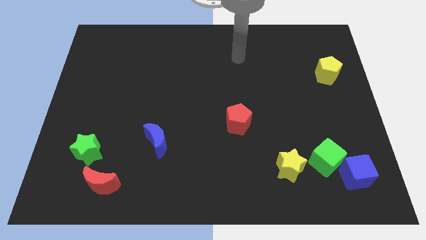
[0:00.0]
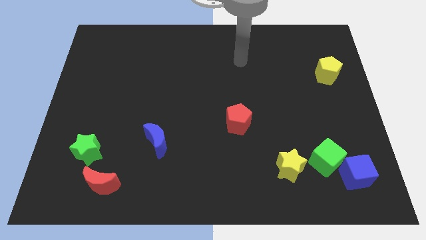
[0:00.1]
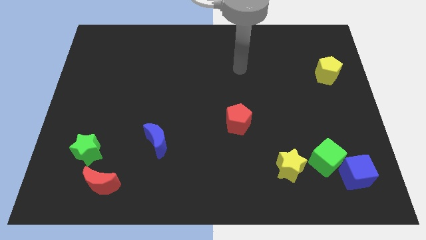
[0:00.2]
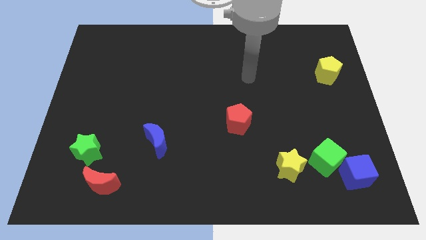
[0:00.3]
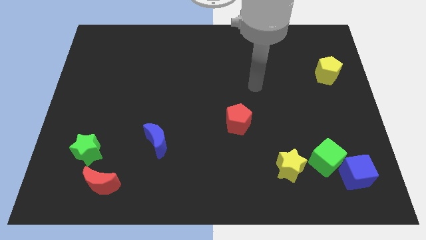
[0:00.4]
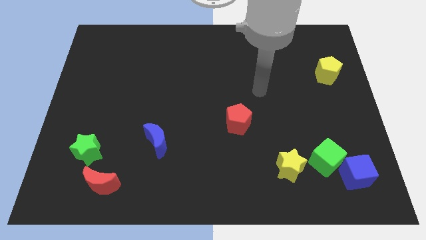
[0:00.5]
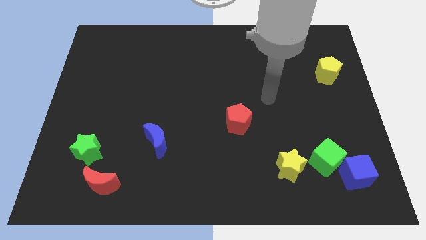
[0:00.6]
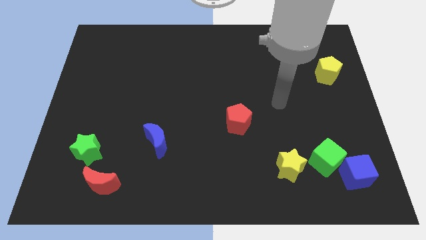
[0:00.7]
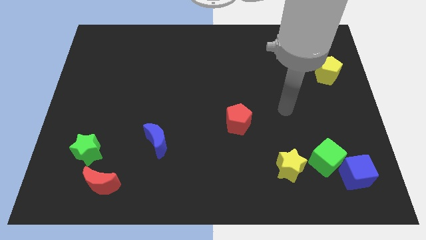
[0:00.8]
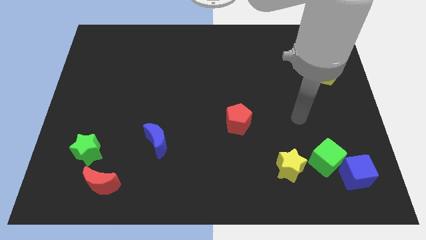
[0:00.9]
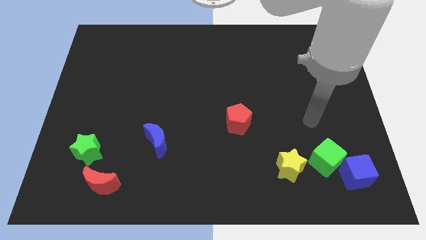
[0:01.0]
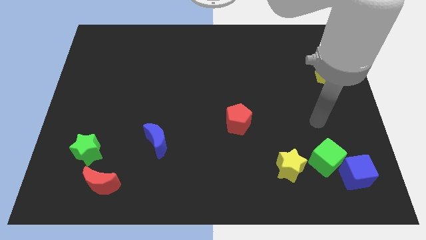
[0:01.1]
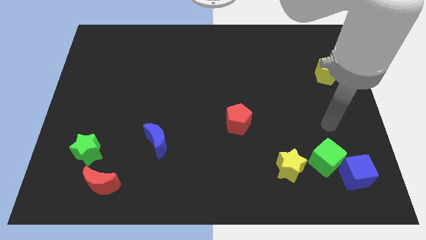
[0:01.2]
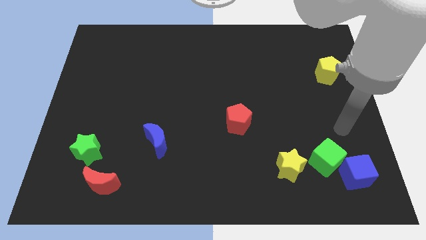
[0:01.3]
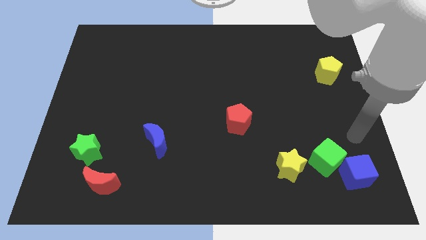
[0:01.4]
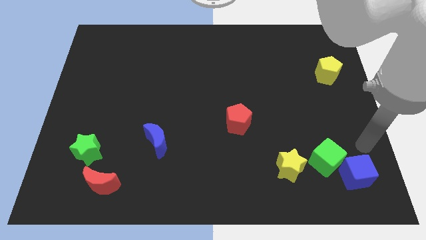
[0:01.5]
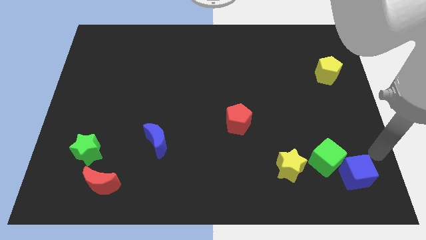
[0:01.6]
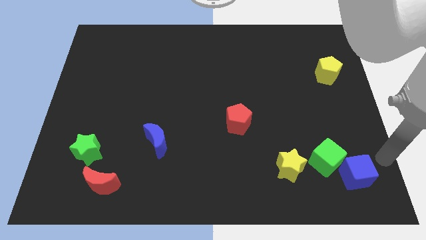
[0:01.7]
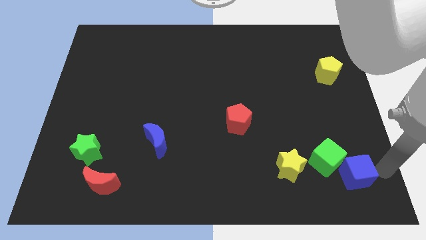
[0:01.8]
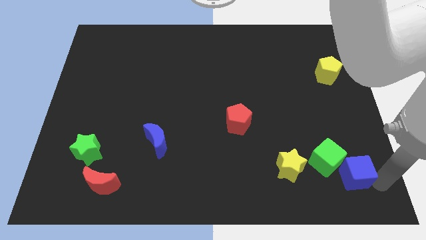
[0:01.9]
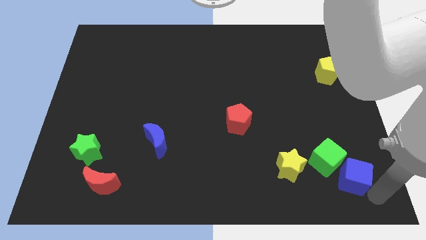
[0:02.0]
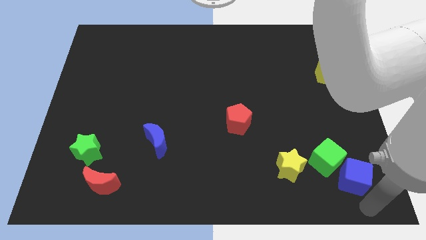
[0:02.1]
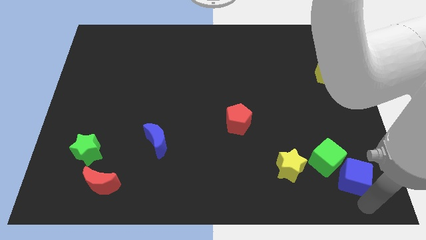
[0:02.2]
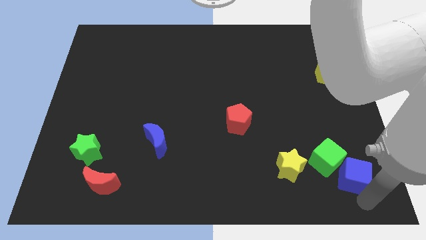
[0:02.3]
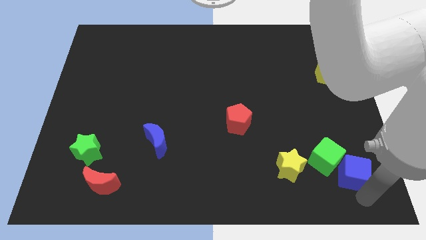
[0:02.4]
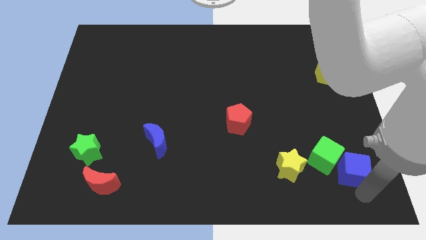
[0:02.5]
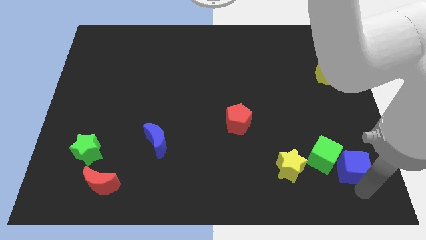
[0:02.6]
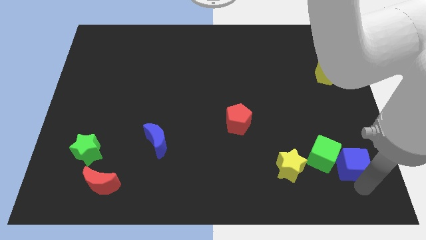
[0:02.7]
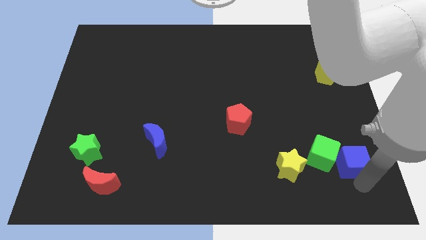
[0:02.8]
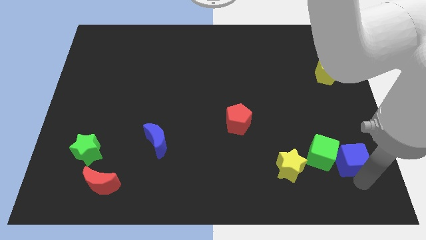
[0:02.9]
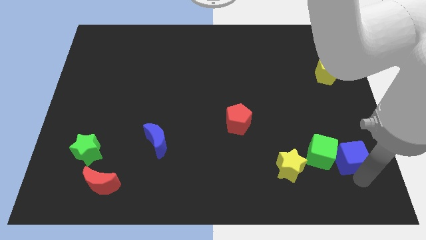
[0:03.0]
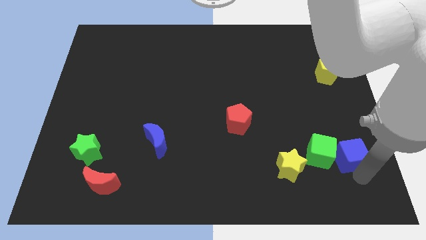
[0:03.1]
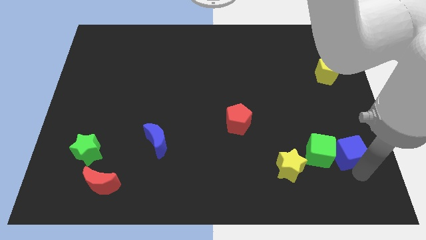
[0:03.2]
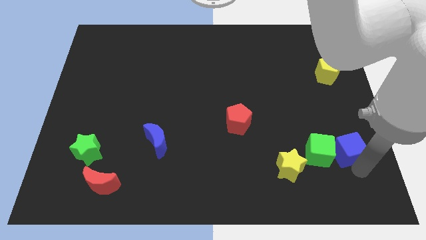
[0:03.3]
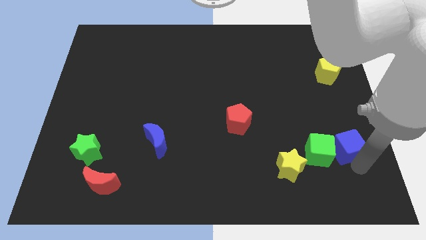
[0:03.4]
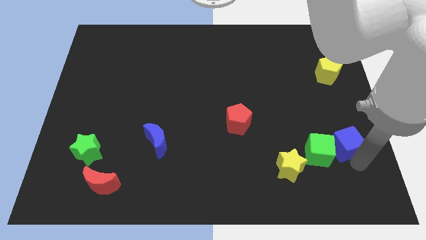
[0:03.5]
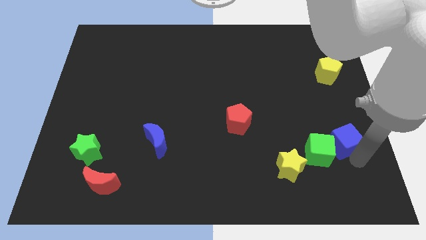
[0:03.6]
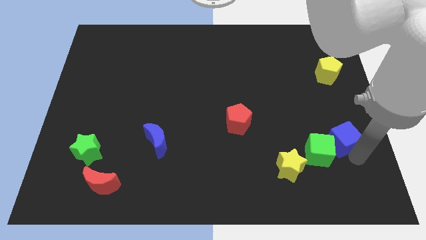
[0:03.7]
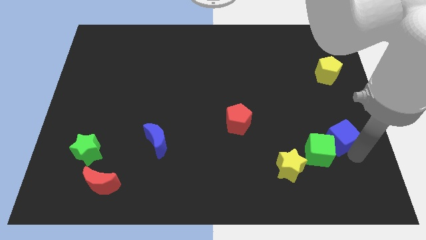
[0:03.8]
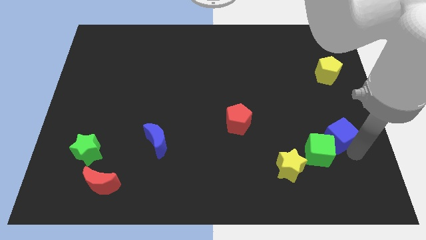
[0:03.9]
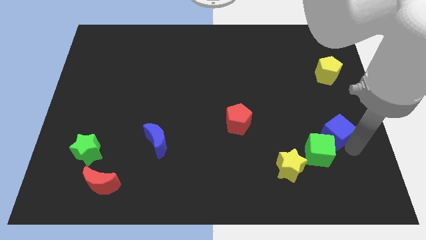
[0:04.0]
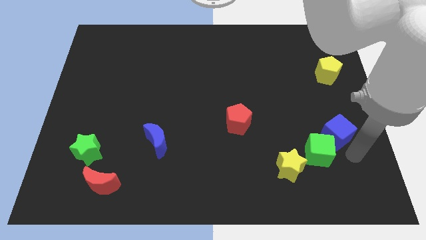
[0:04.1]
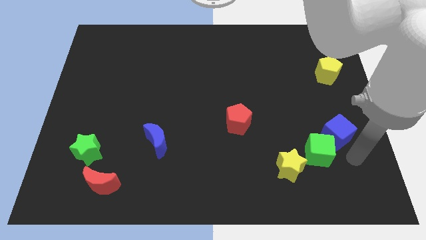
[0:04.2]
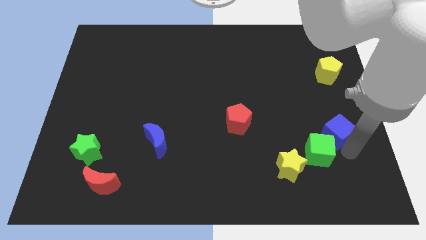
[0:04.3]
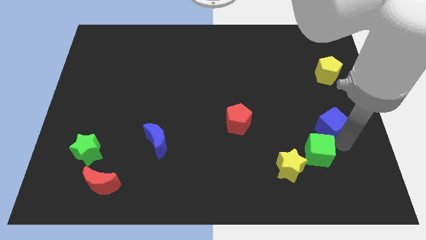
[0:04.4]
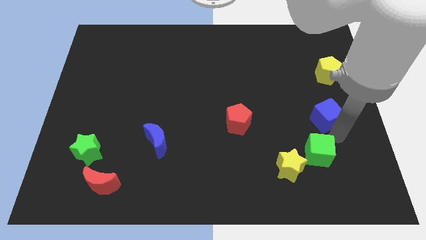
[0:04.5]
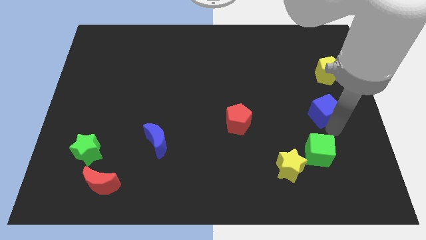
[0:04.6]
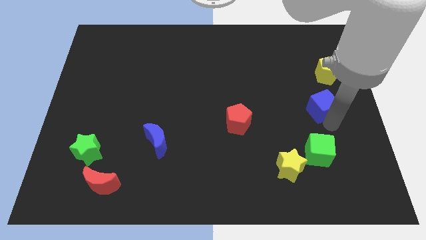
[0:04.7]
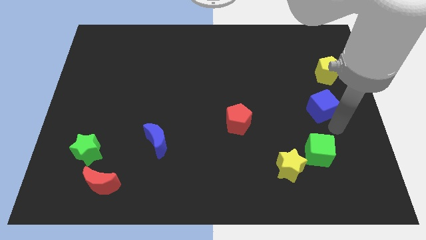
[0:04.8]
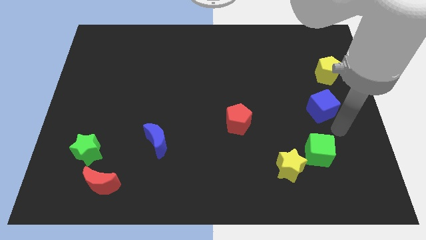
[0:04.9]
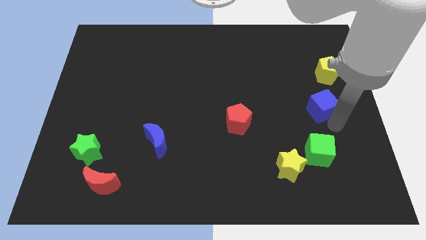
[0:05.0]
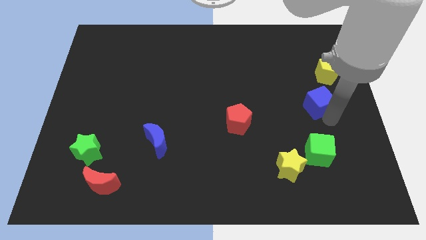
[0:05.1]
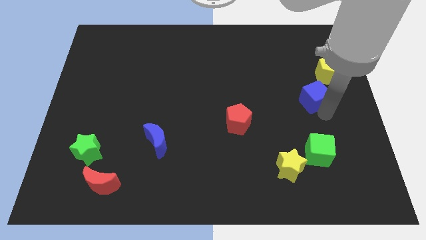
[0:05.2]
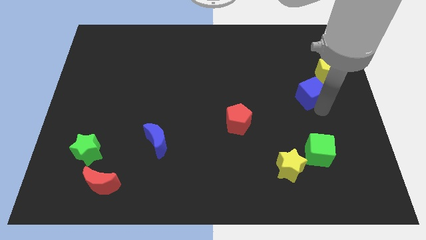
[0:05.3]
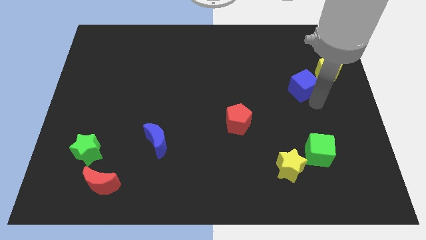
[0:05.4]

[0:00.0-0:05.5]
slide the blue cube to the left side of the yellow pentagon

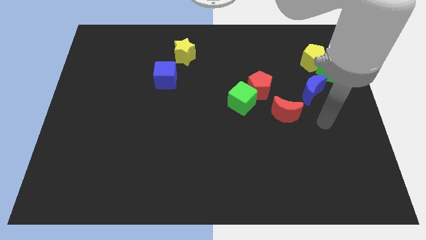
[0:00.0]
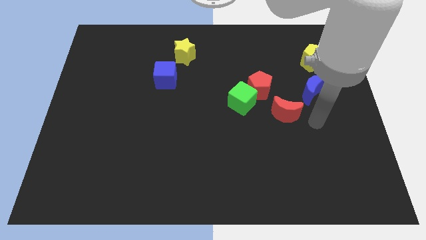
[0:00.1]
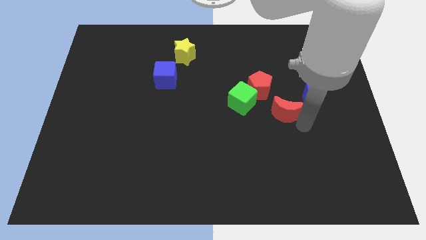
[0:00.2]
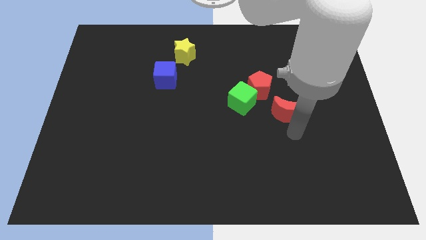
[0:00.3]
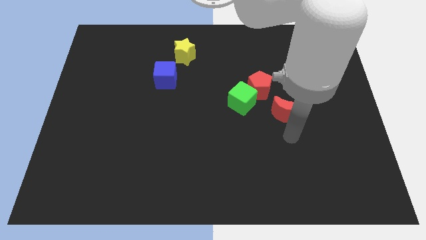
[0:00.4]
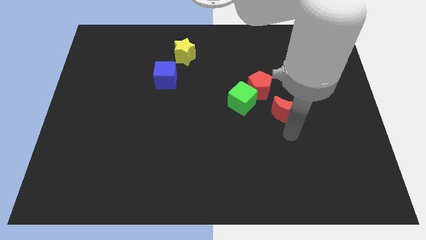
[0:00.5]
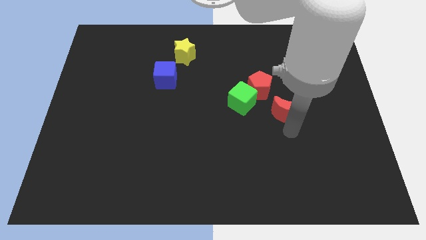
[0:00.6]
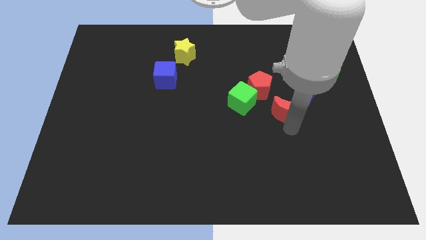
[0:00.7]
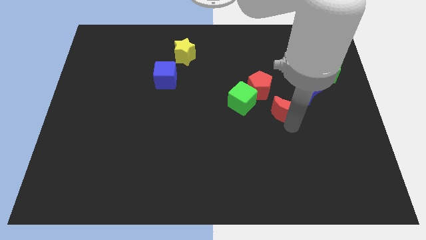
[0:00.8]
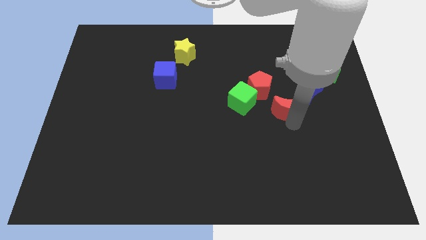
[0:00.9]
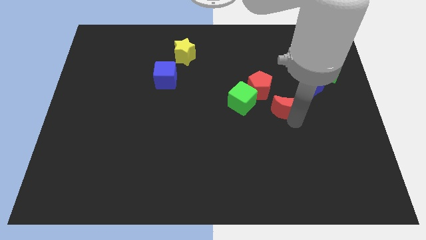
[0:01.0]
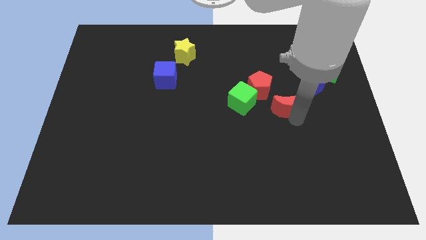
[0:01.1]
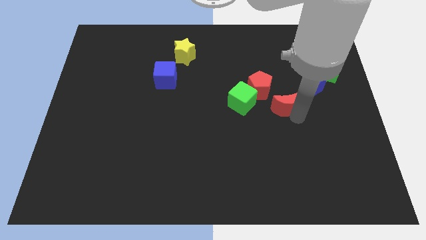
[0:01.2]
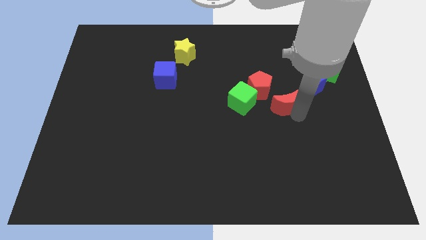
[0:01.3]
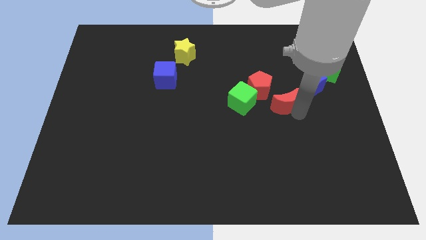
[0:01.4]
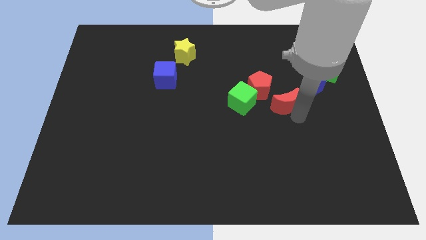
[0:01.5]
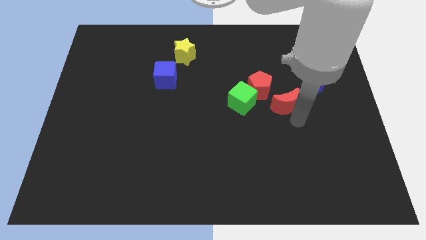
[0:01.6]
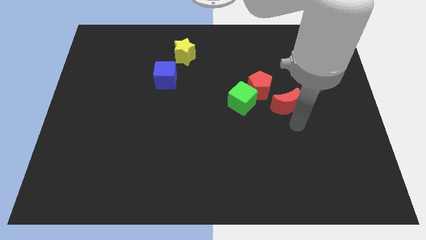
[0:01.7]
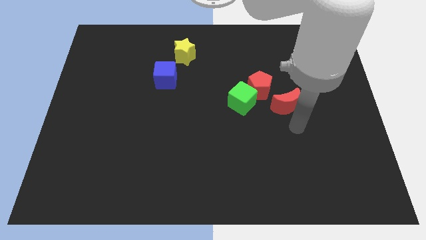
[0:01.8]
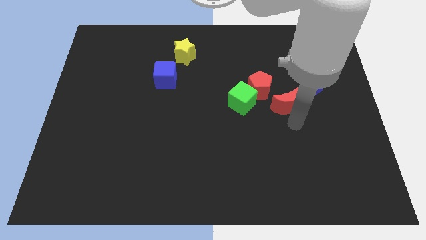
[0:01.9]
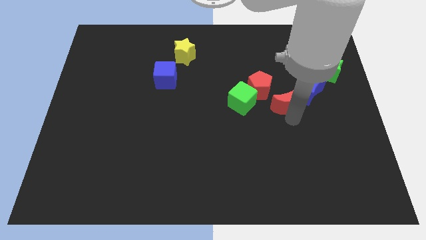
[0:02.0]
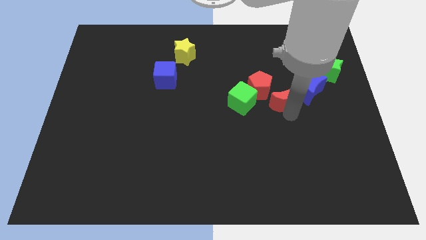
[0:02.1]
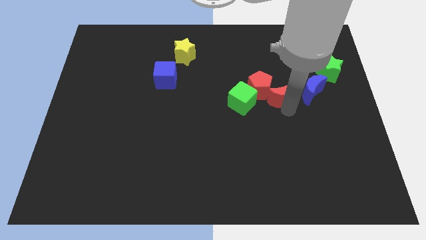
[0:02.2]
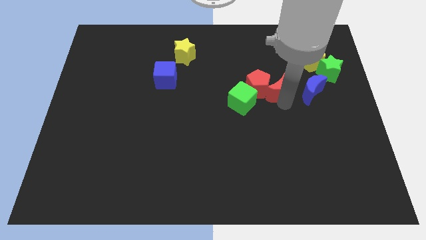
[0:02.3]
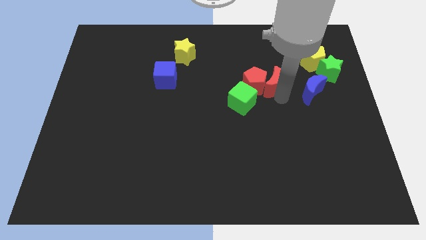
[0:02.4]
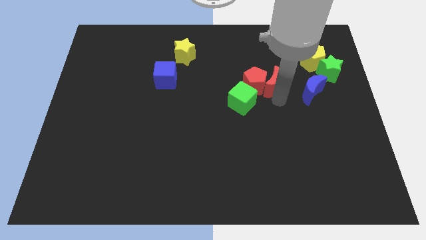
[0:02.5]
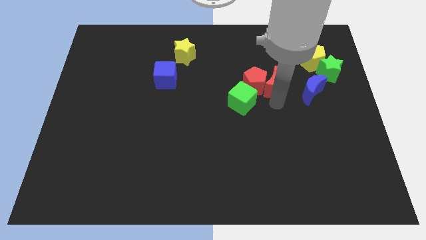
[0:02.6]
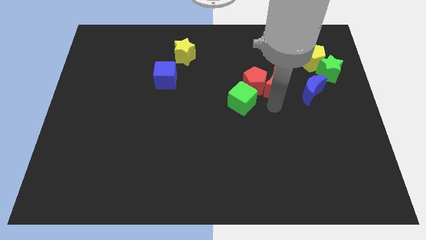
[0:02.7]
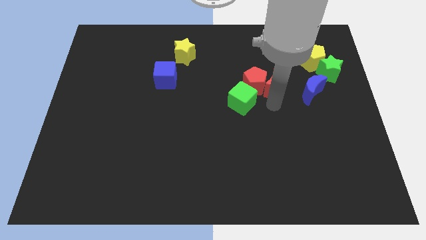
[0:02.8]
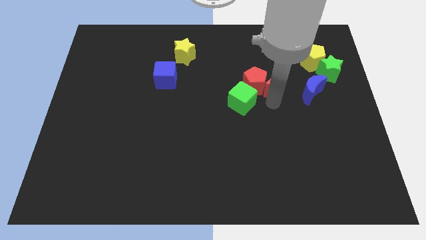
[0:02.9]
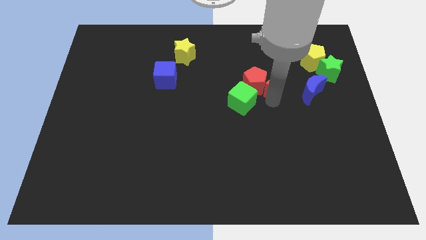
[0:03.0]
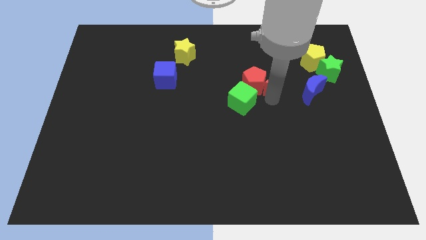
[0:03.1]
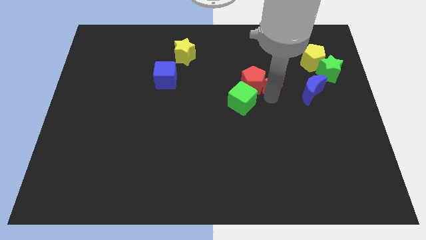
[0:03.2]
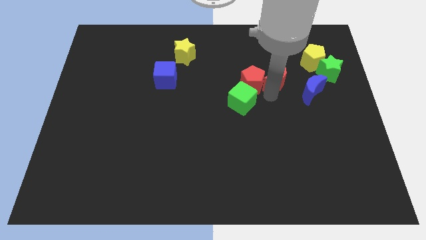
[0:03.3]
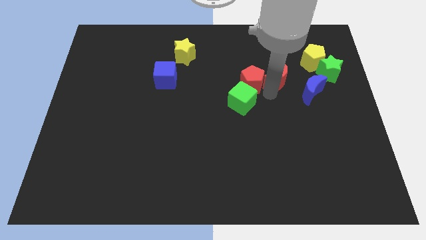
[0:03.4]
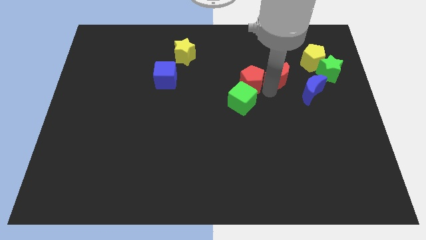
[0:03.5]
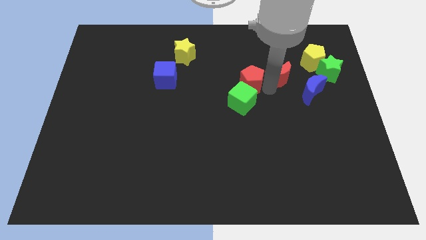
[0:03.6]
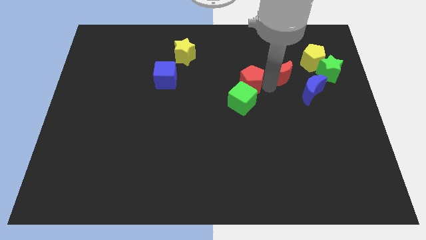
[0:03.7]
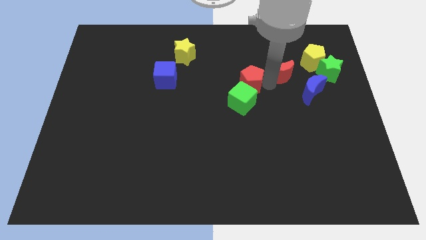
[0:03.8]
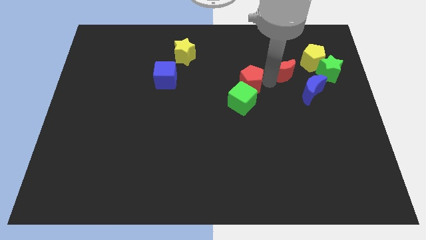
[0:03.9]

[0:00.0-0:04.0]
move the red moon just left of the yellow pentagon
